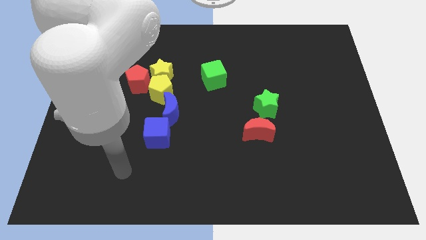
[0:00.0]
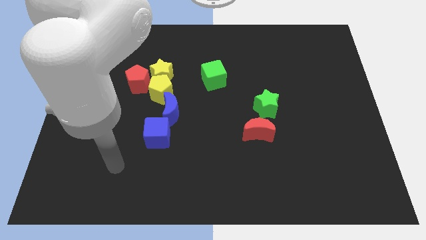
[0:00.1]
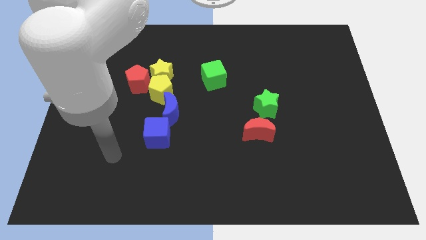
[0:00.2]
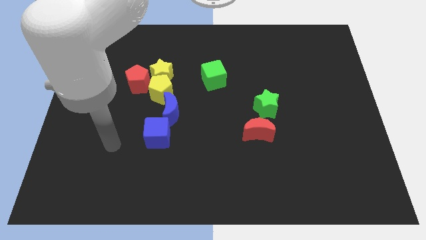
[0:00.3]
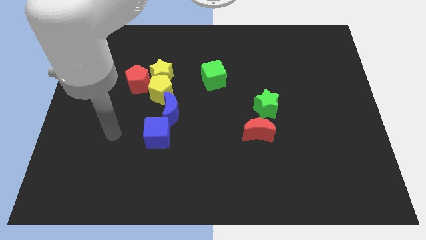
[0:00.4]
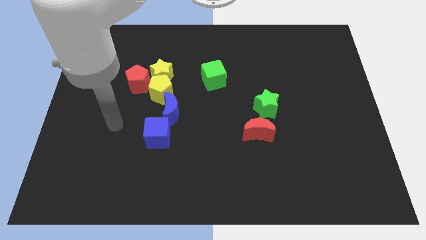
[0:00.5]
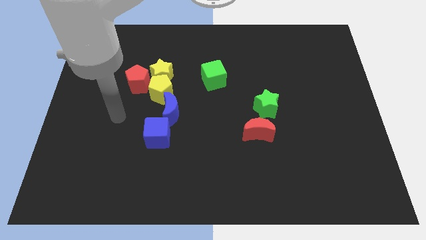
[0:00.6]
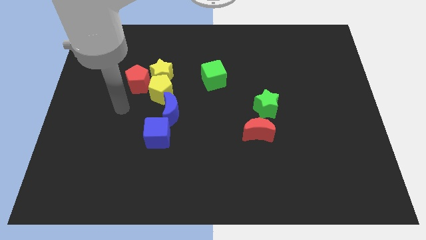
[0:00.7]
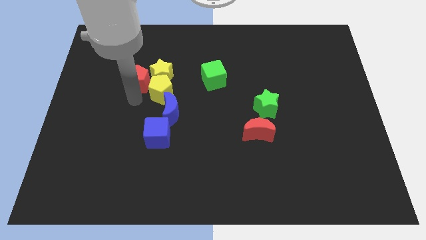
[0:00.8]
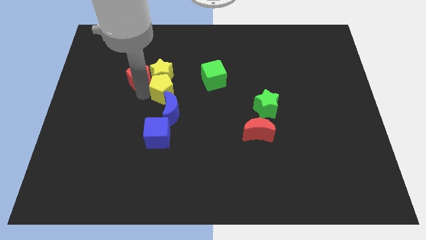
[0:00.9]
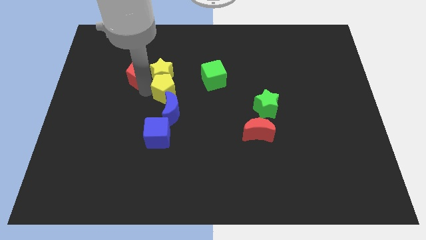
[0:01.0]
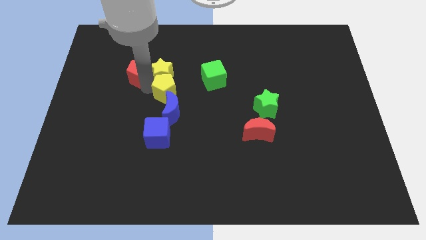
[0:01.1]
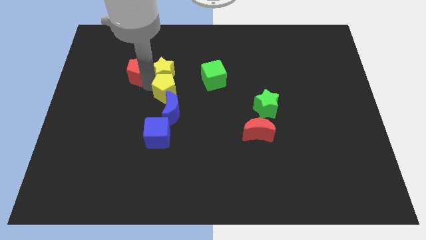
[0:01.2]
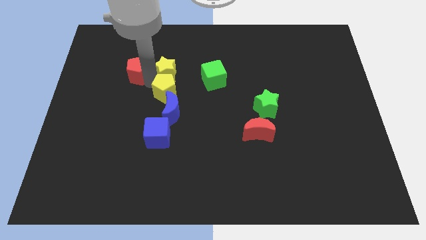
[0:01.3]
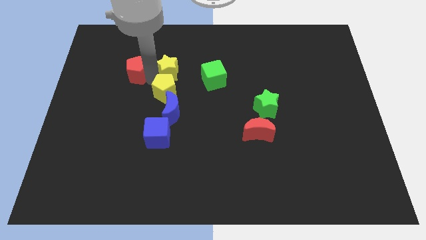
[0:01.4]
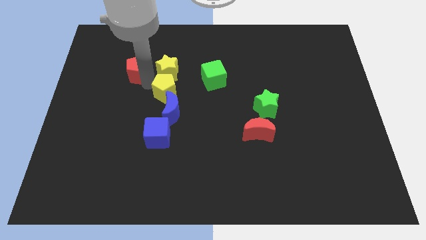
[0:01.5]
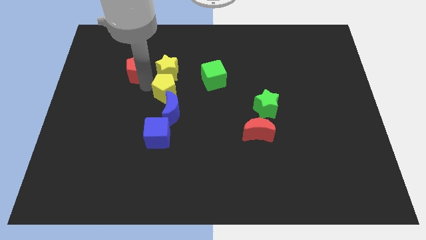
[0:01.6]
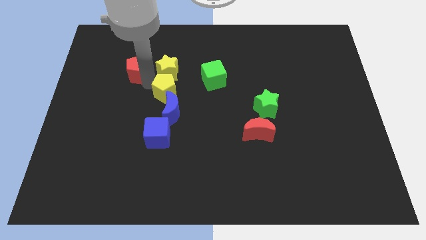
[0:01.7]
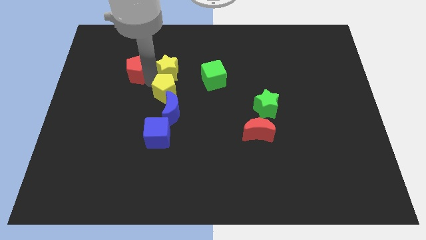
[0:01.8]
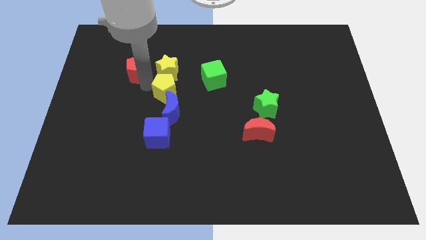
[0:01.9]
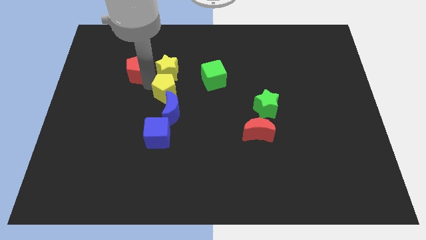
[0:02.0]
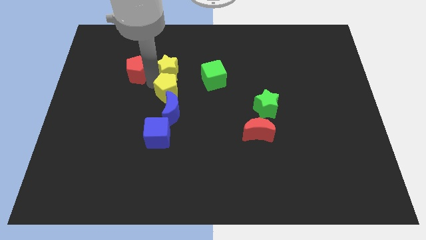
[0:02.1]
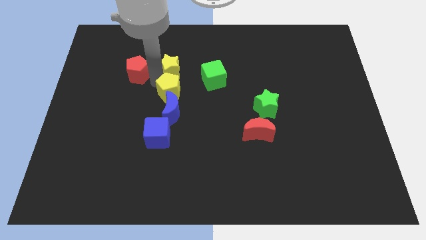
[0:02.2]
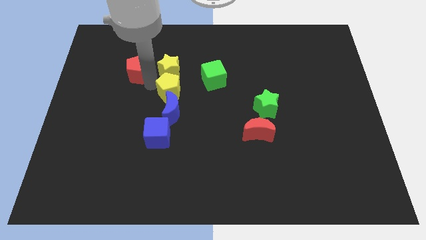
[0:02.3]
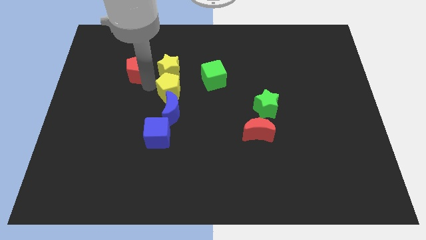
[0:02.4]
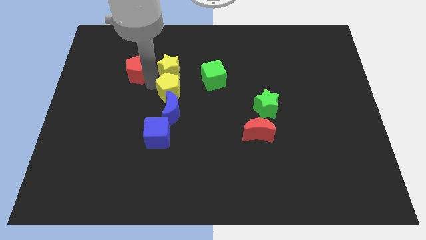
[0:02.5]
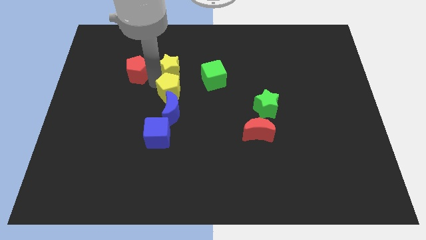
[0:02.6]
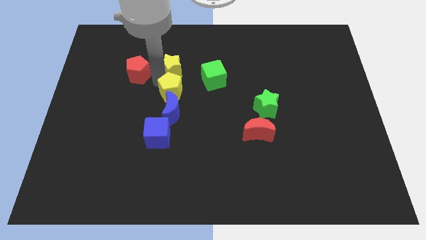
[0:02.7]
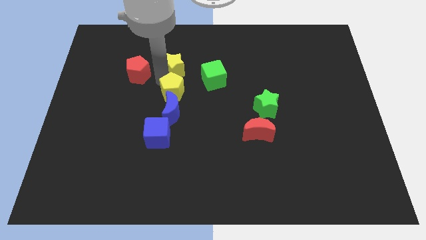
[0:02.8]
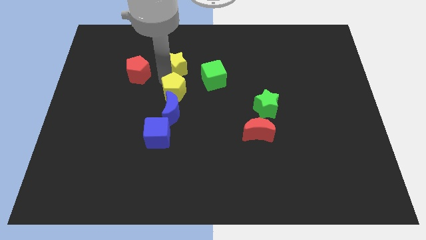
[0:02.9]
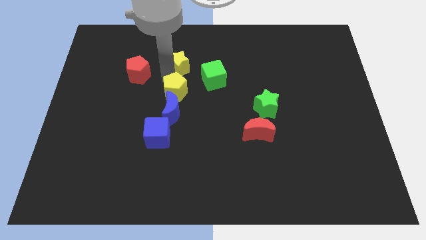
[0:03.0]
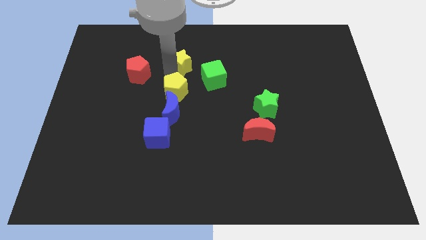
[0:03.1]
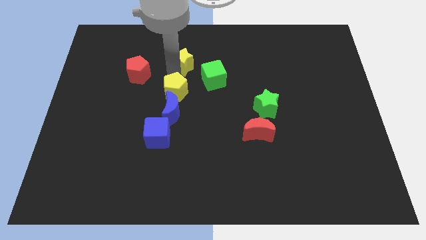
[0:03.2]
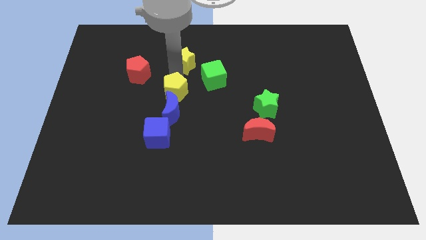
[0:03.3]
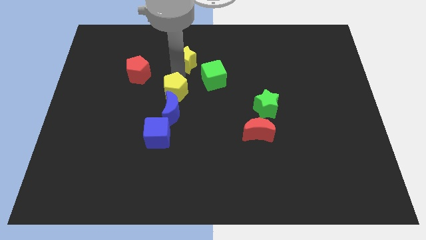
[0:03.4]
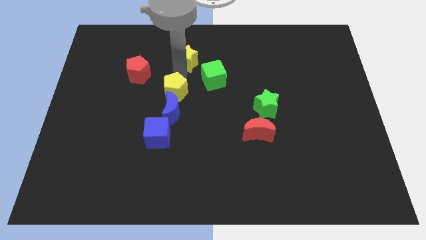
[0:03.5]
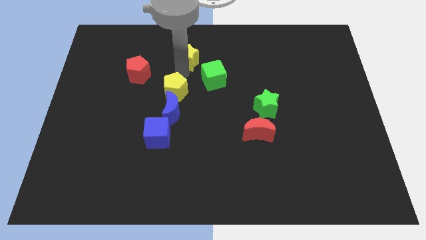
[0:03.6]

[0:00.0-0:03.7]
separate the yellow star from the yellow pentagon and red pentagon

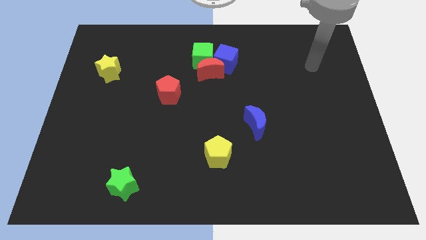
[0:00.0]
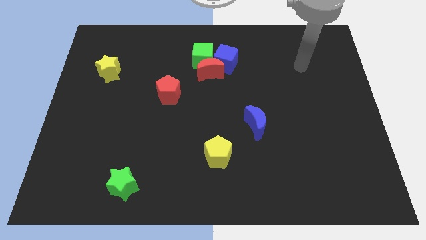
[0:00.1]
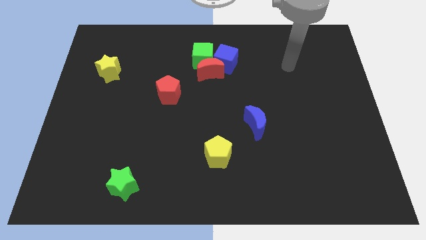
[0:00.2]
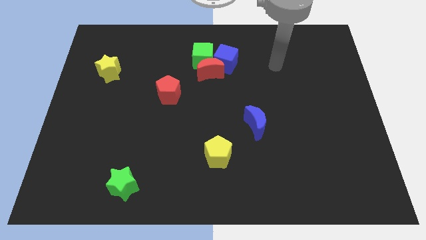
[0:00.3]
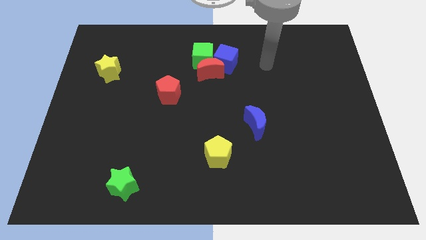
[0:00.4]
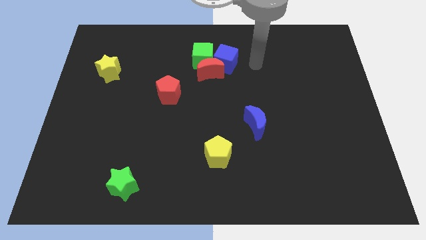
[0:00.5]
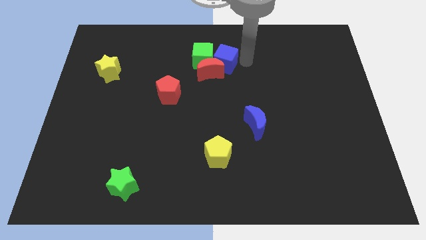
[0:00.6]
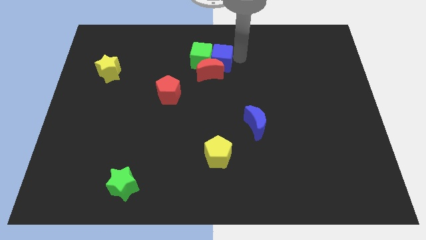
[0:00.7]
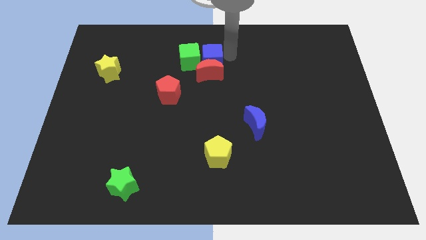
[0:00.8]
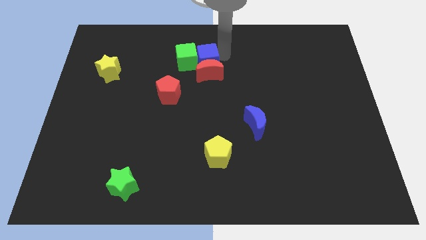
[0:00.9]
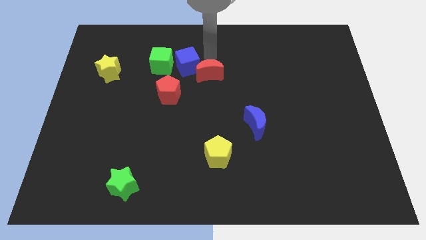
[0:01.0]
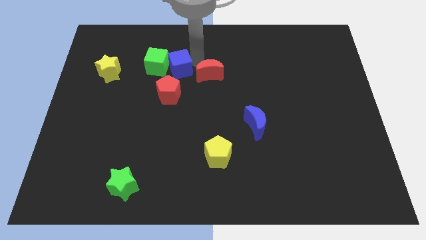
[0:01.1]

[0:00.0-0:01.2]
separate the red moon from the green cube and blue cube

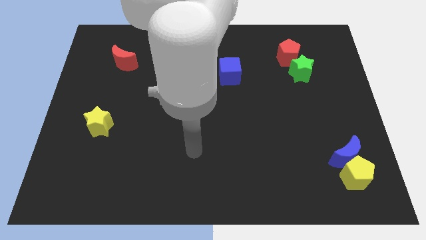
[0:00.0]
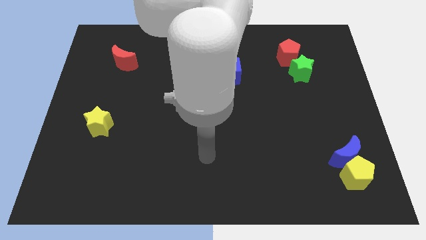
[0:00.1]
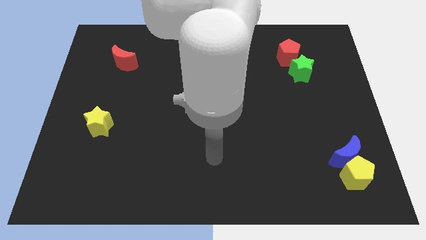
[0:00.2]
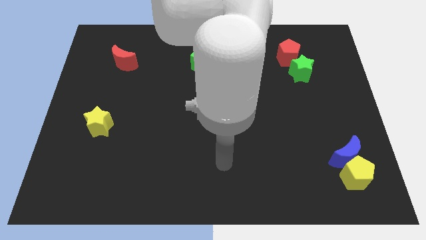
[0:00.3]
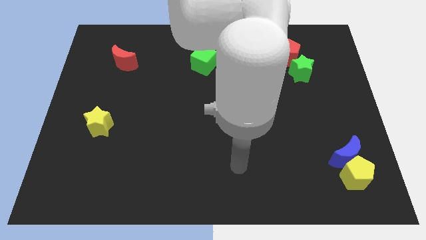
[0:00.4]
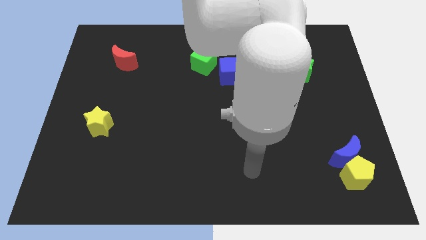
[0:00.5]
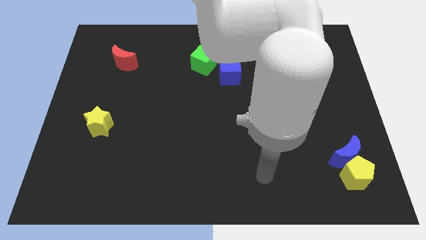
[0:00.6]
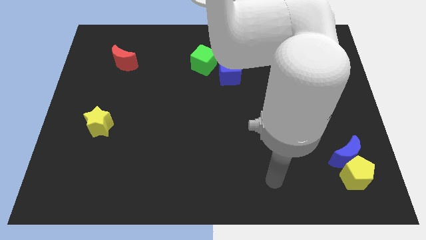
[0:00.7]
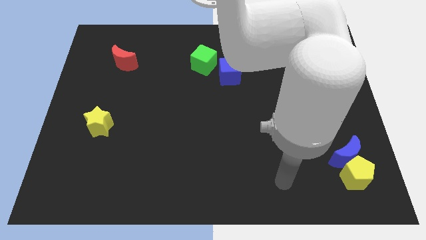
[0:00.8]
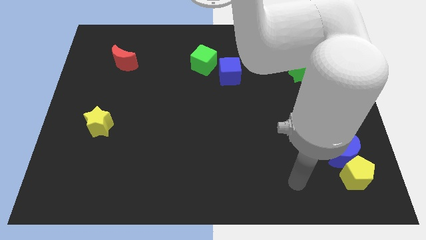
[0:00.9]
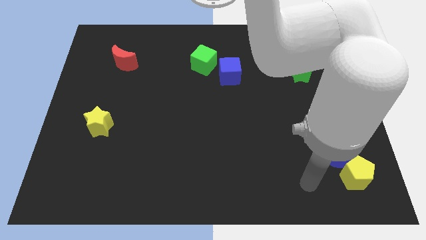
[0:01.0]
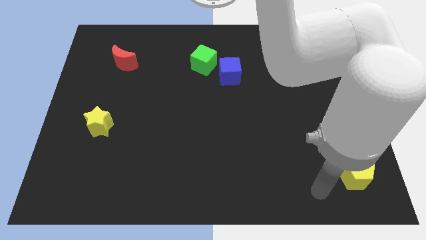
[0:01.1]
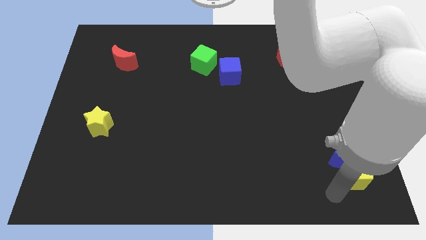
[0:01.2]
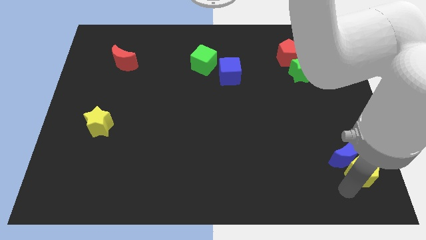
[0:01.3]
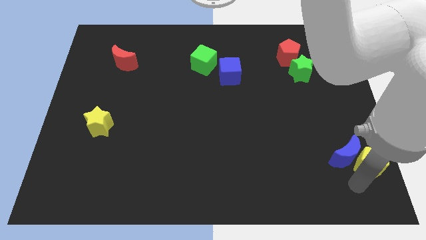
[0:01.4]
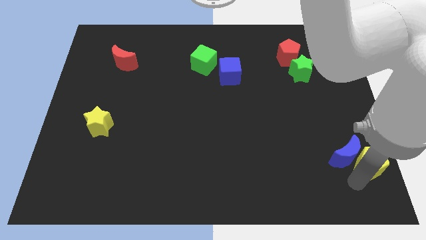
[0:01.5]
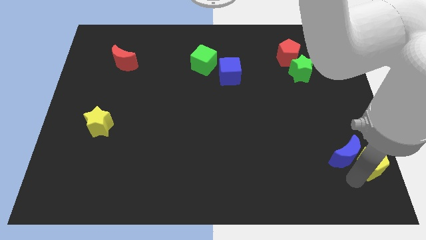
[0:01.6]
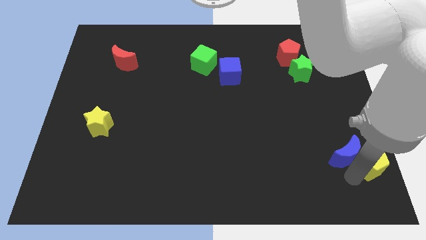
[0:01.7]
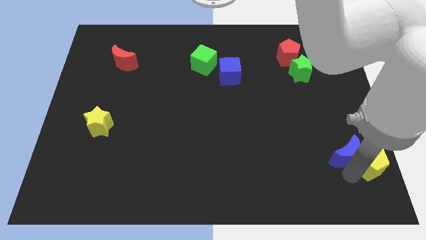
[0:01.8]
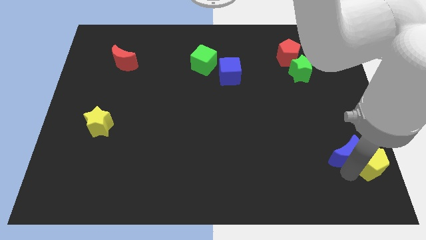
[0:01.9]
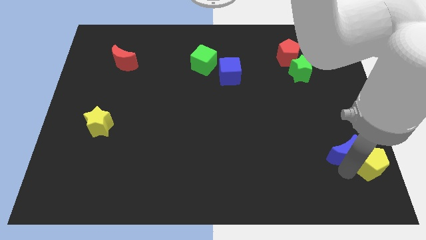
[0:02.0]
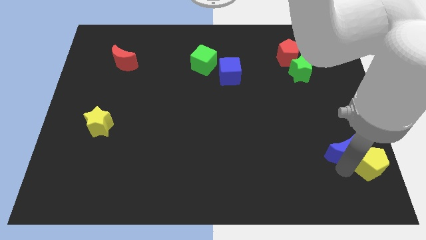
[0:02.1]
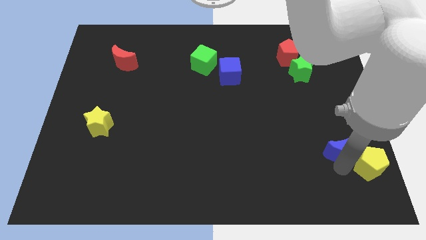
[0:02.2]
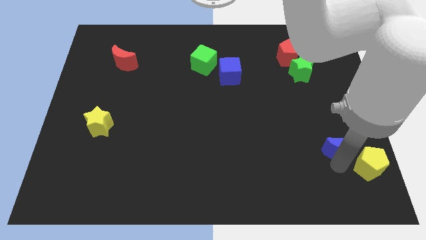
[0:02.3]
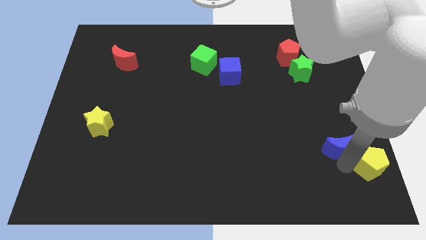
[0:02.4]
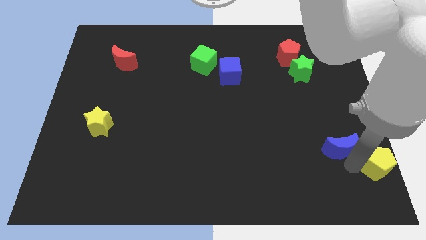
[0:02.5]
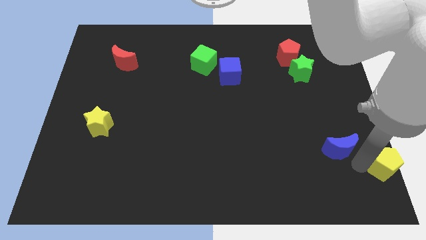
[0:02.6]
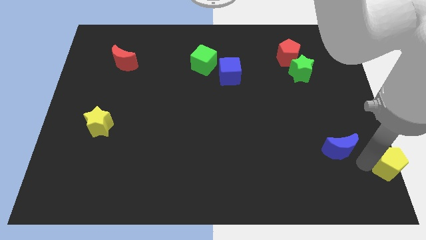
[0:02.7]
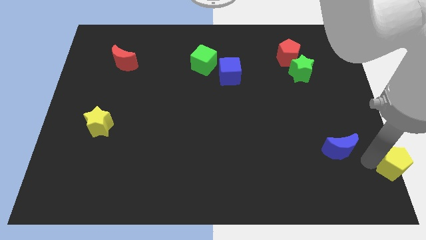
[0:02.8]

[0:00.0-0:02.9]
separate the blue moon from the yellow pentagon

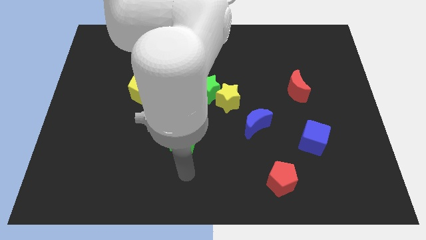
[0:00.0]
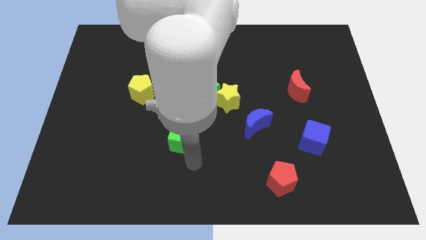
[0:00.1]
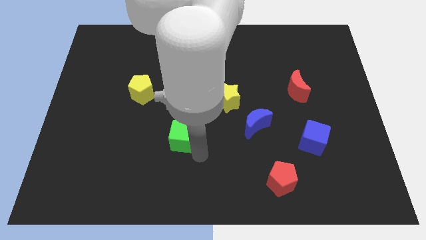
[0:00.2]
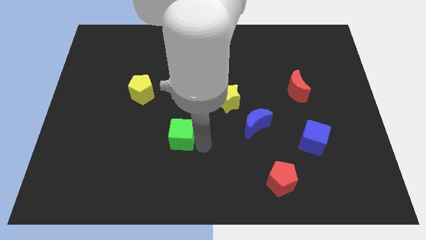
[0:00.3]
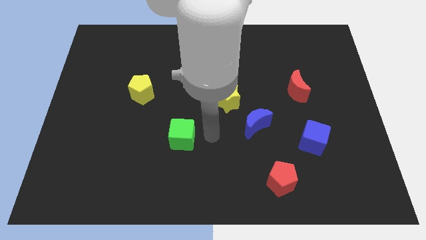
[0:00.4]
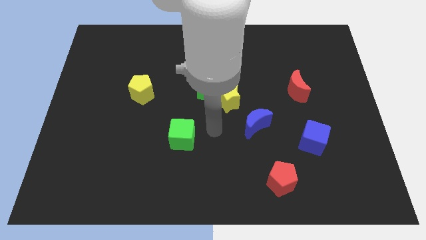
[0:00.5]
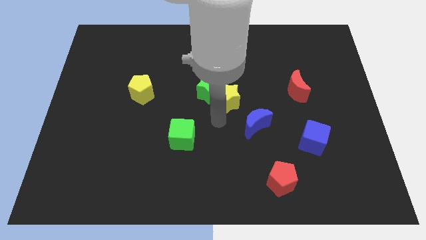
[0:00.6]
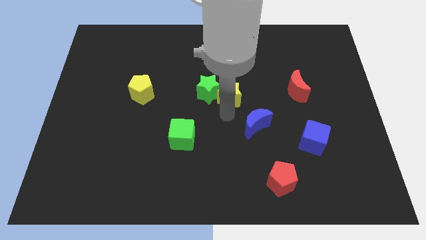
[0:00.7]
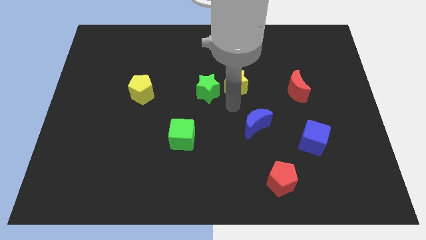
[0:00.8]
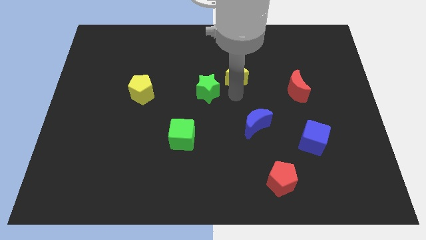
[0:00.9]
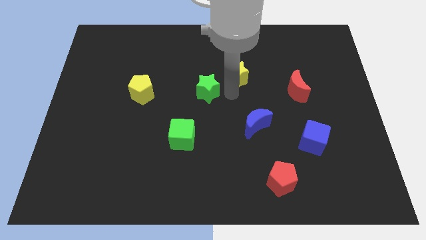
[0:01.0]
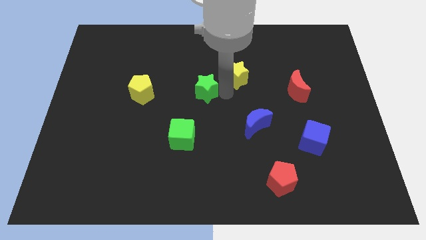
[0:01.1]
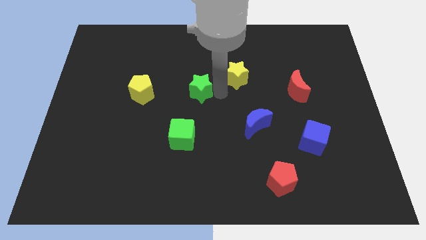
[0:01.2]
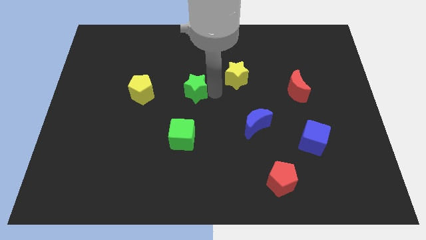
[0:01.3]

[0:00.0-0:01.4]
move the green star away from the yellow star

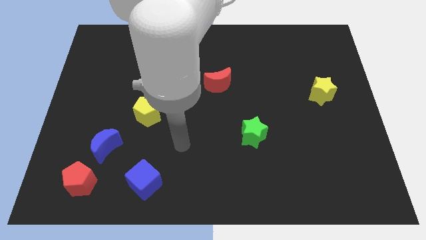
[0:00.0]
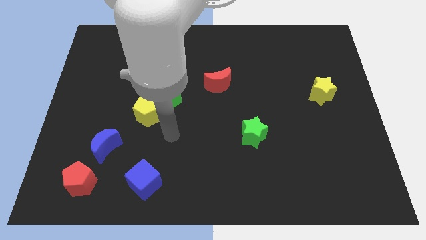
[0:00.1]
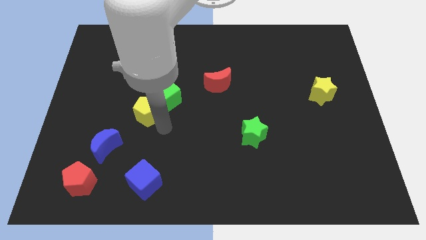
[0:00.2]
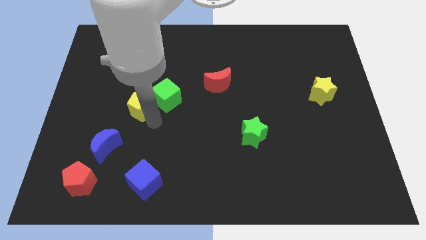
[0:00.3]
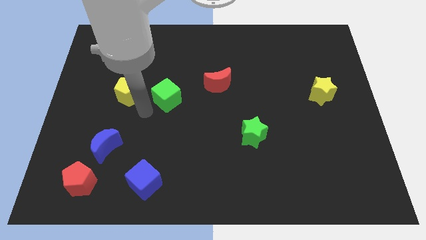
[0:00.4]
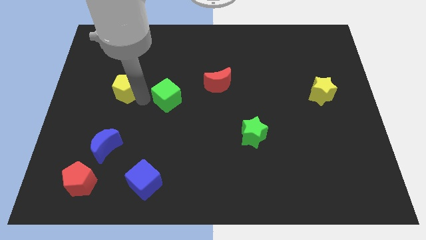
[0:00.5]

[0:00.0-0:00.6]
separate the green cube from the yellow pentagon
